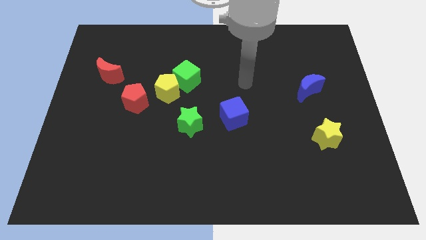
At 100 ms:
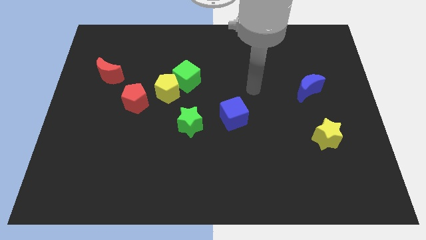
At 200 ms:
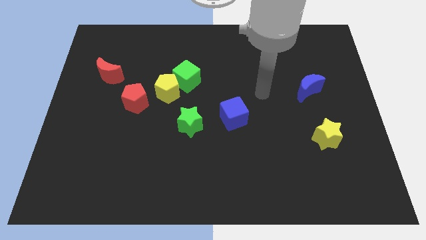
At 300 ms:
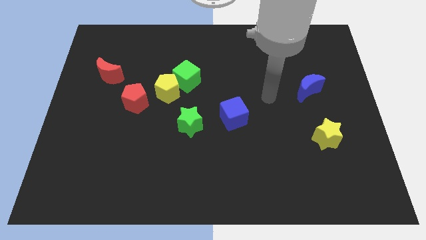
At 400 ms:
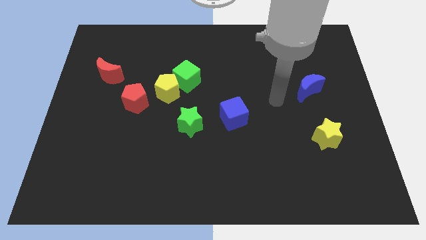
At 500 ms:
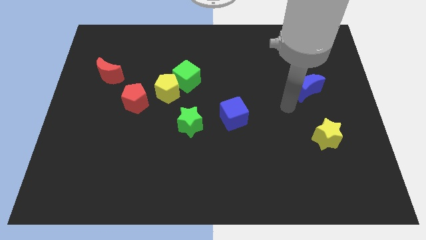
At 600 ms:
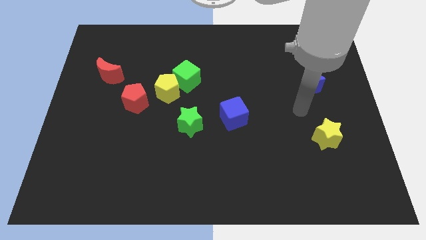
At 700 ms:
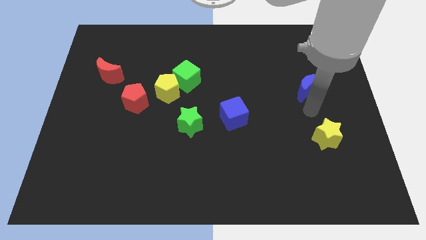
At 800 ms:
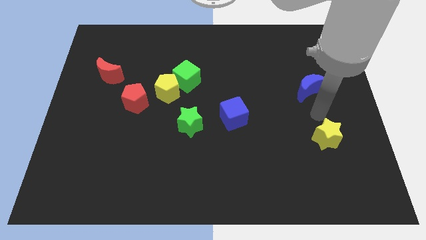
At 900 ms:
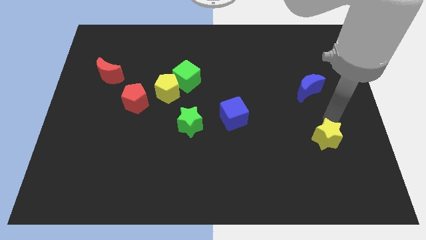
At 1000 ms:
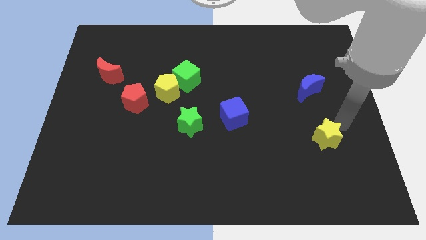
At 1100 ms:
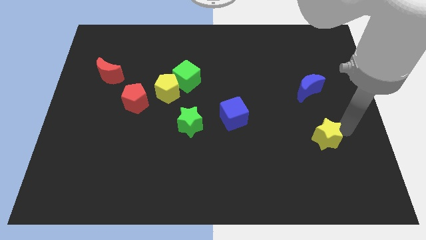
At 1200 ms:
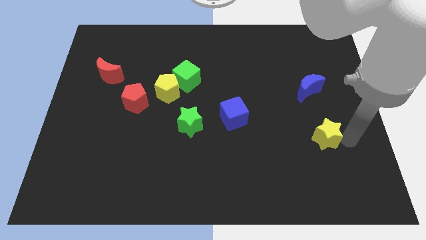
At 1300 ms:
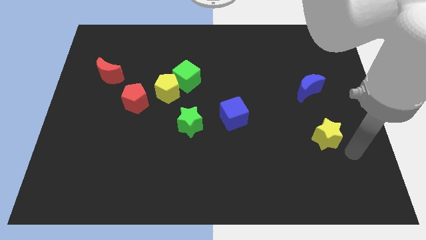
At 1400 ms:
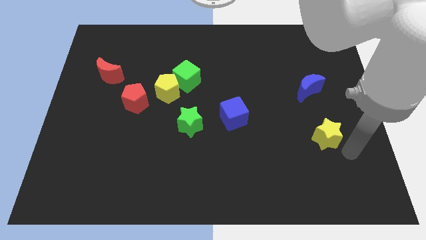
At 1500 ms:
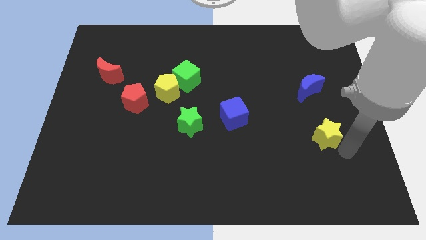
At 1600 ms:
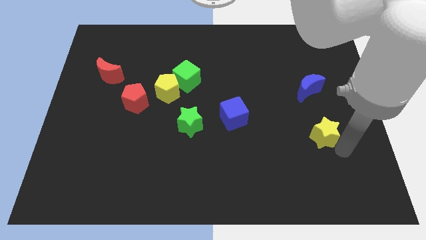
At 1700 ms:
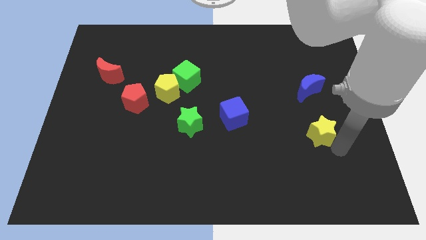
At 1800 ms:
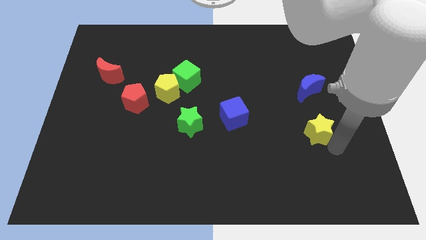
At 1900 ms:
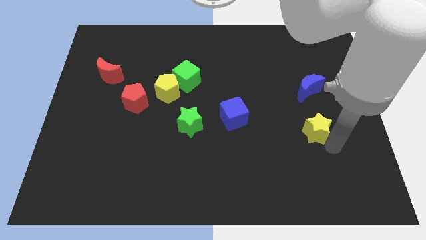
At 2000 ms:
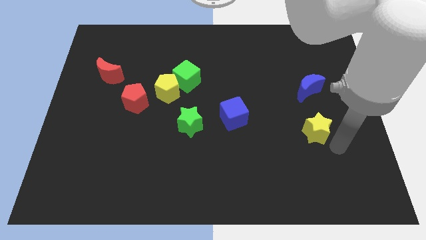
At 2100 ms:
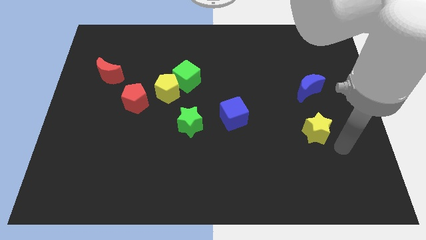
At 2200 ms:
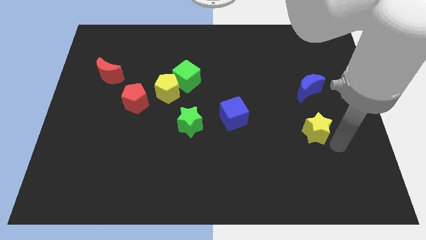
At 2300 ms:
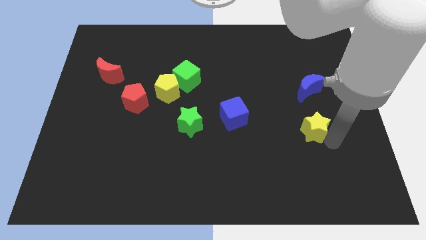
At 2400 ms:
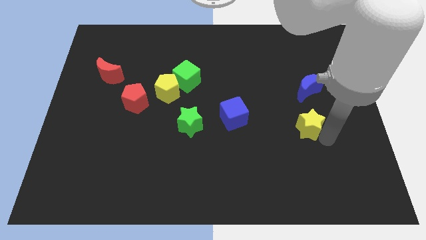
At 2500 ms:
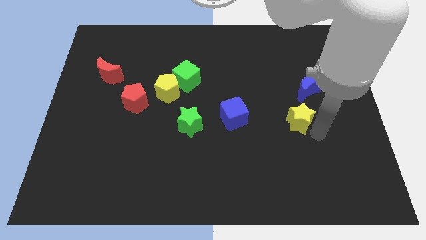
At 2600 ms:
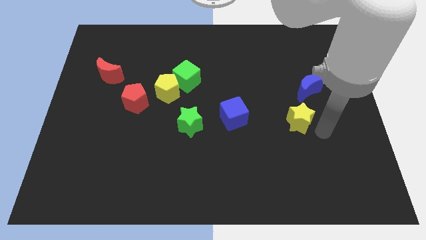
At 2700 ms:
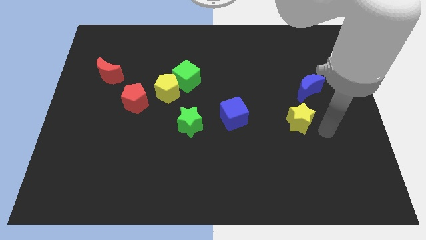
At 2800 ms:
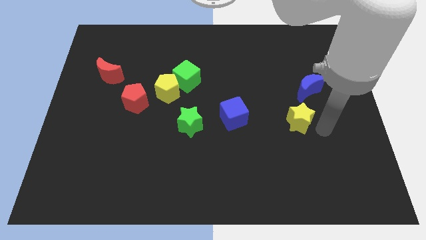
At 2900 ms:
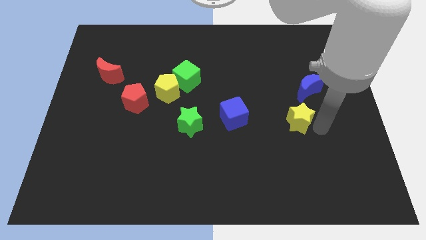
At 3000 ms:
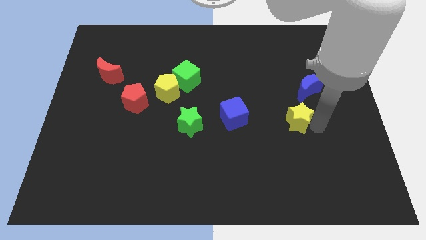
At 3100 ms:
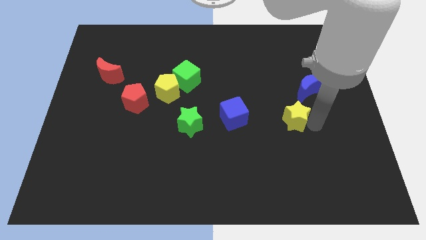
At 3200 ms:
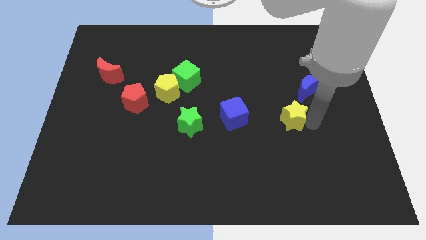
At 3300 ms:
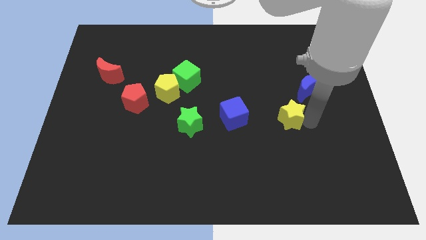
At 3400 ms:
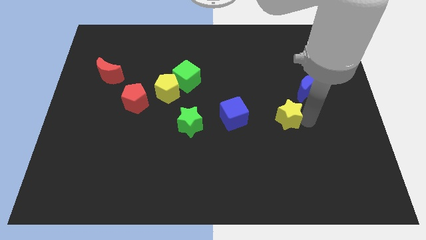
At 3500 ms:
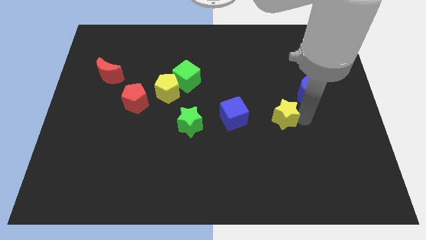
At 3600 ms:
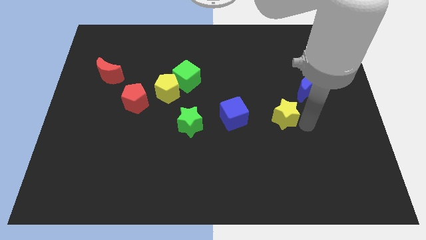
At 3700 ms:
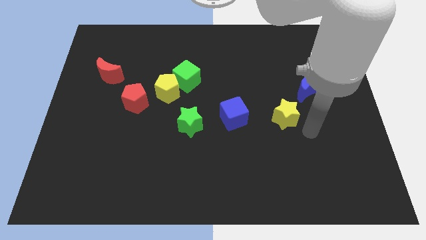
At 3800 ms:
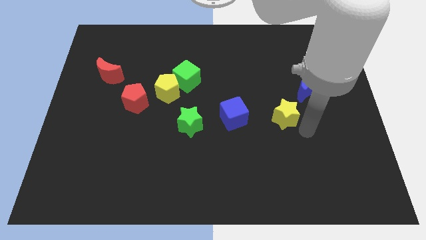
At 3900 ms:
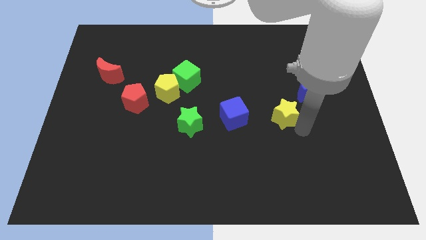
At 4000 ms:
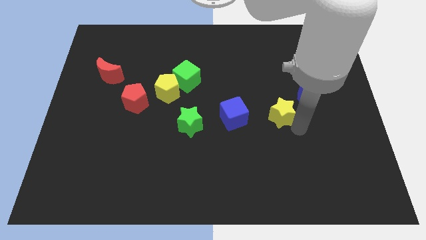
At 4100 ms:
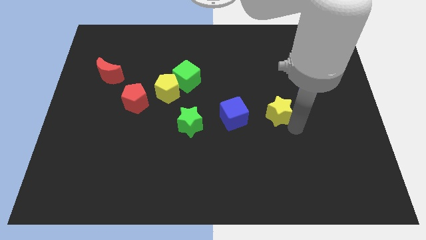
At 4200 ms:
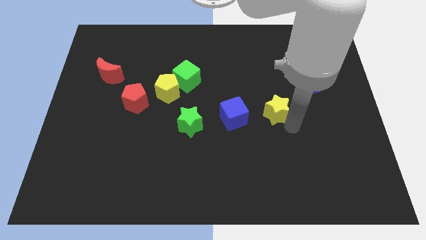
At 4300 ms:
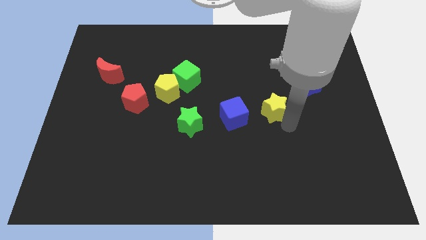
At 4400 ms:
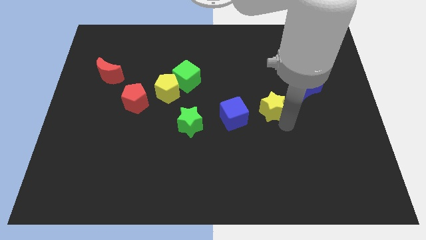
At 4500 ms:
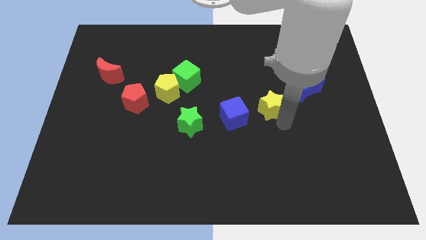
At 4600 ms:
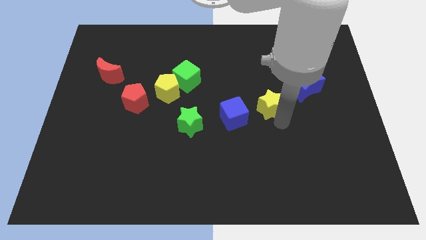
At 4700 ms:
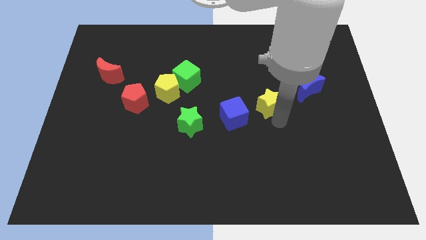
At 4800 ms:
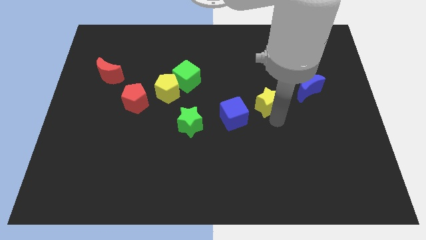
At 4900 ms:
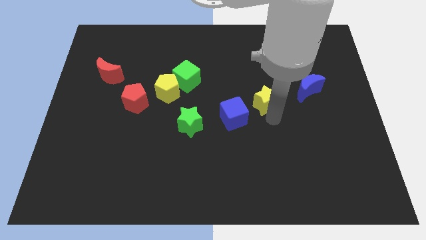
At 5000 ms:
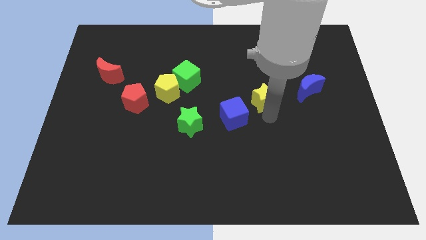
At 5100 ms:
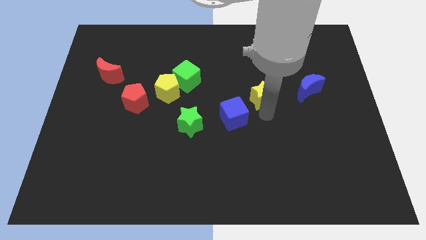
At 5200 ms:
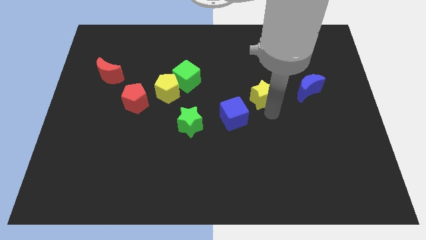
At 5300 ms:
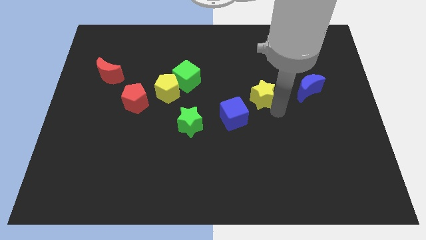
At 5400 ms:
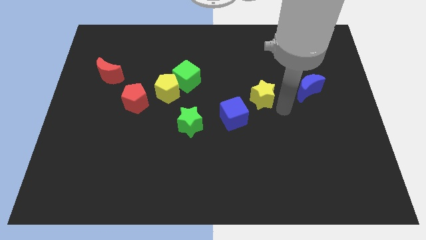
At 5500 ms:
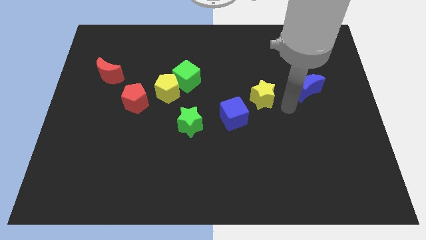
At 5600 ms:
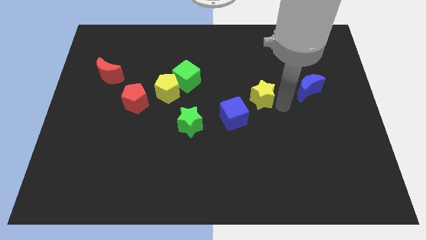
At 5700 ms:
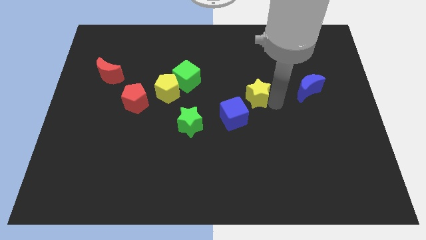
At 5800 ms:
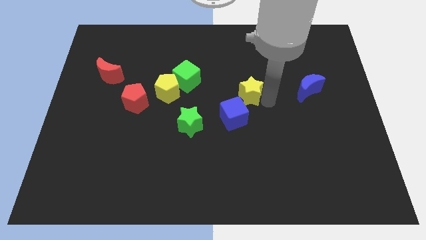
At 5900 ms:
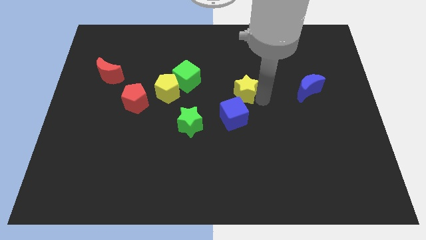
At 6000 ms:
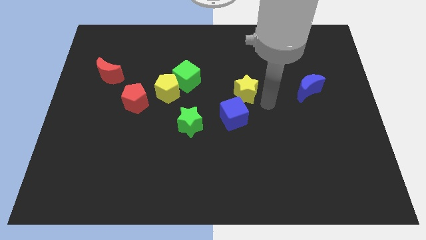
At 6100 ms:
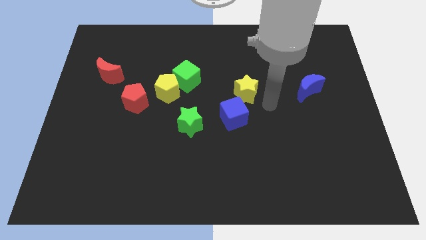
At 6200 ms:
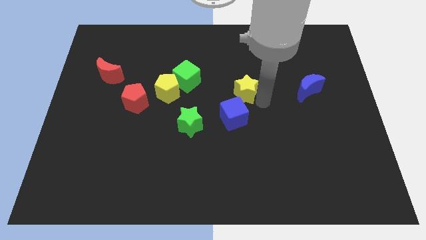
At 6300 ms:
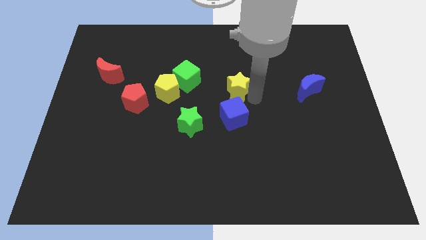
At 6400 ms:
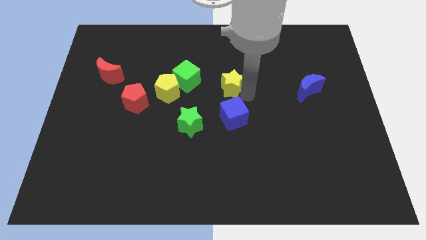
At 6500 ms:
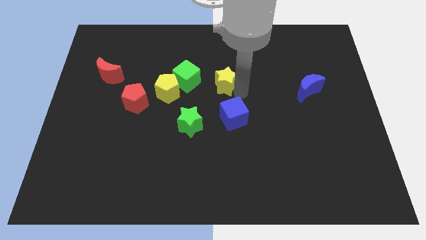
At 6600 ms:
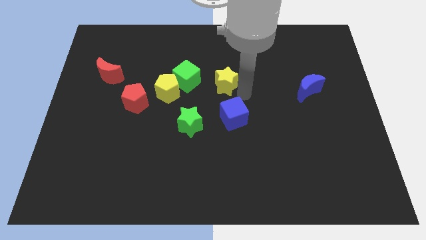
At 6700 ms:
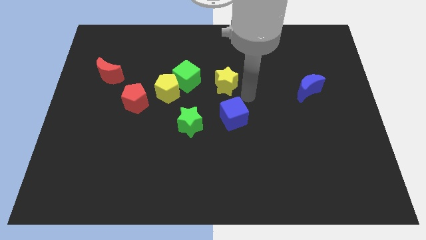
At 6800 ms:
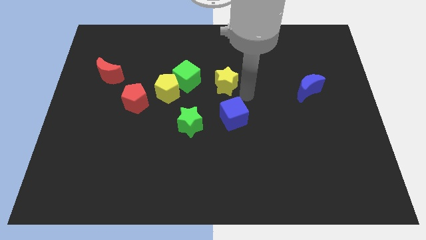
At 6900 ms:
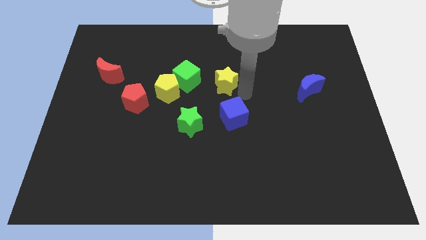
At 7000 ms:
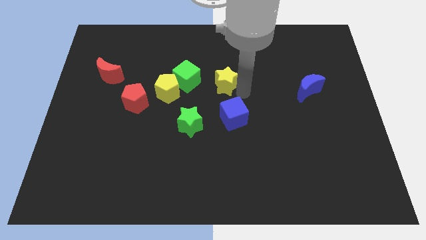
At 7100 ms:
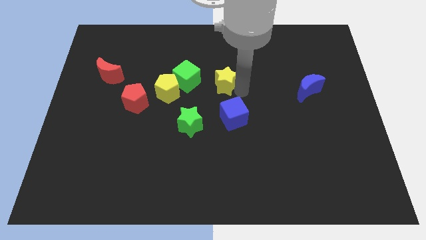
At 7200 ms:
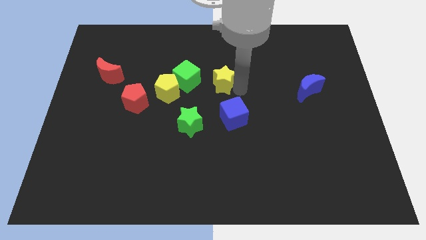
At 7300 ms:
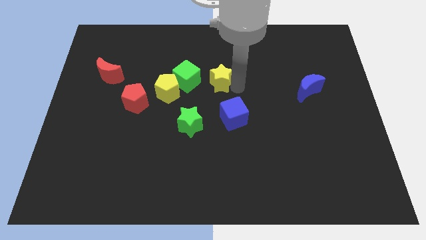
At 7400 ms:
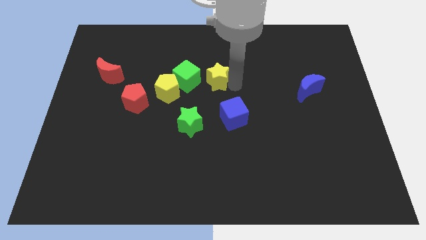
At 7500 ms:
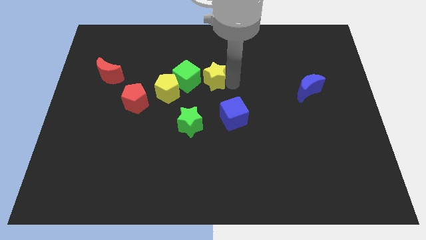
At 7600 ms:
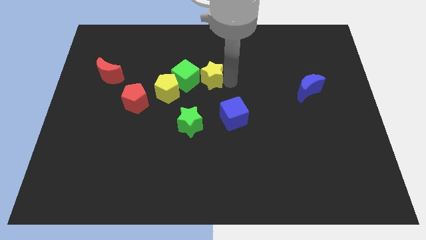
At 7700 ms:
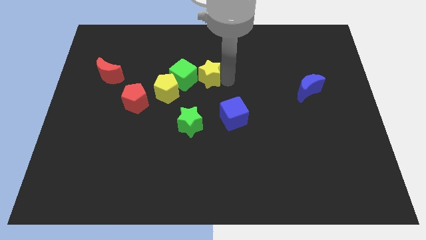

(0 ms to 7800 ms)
push the yellow star to the top right of the yellow pentagon
